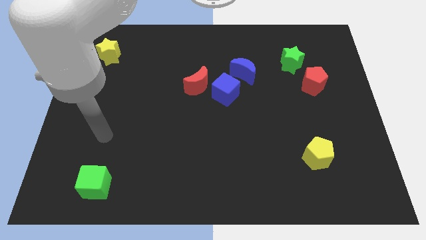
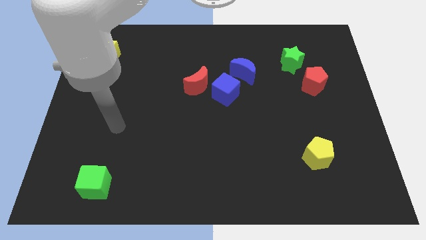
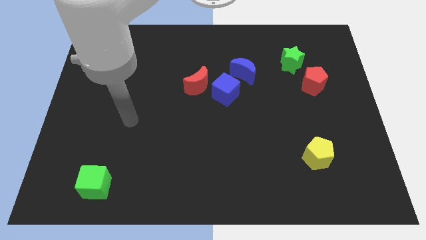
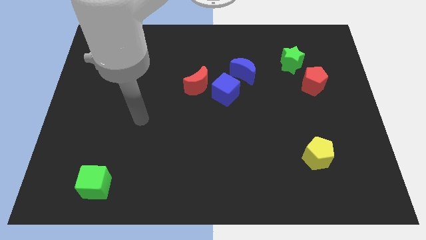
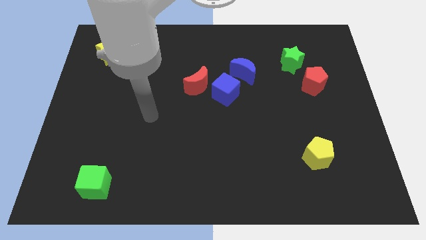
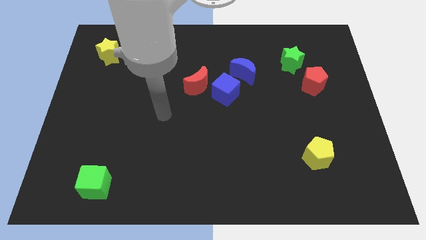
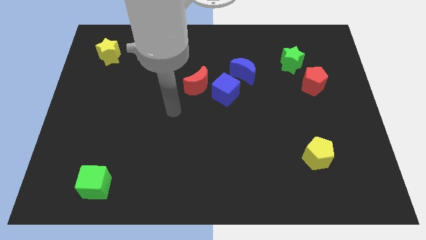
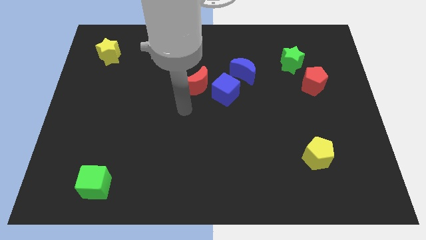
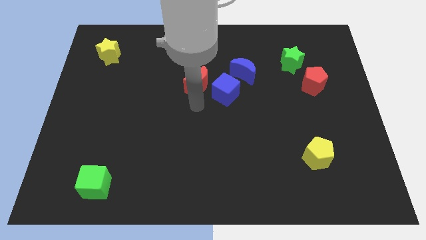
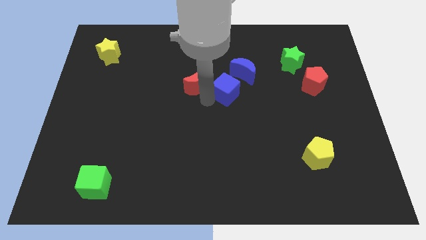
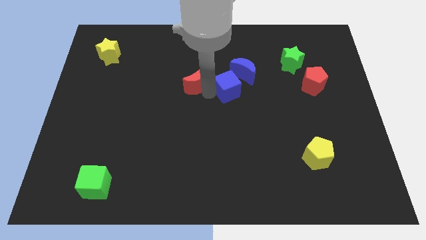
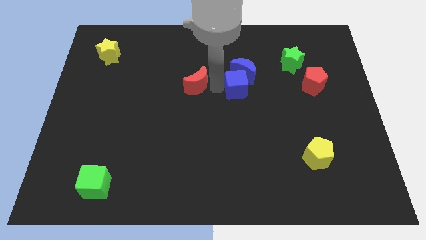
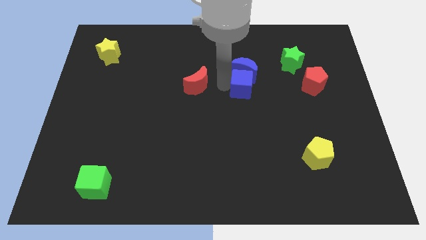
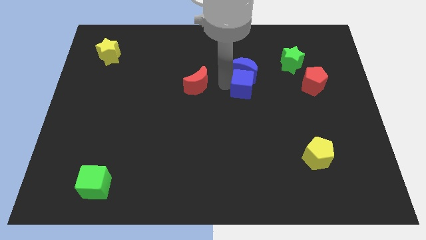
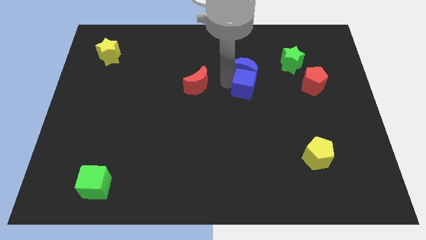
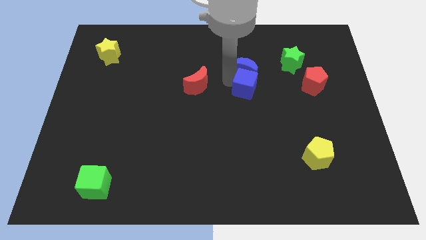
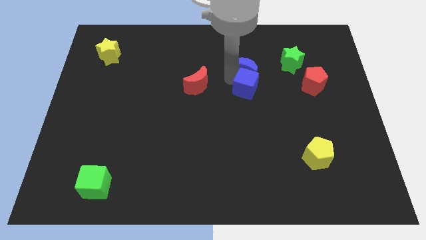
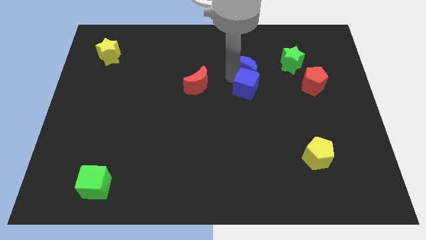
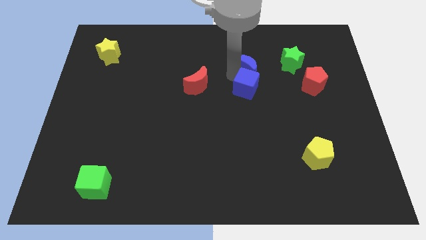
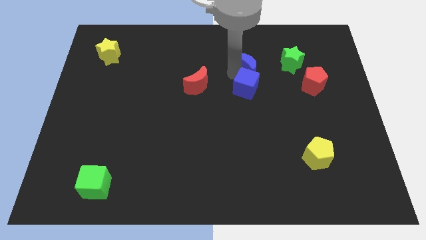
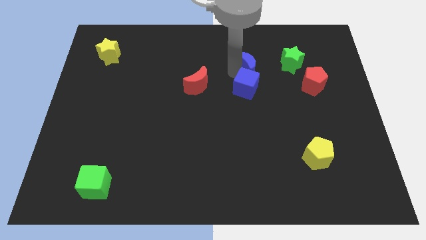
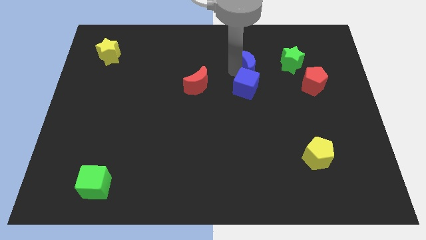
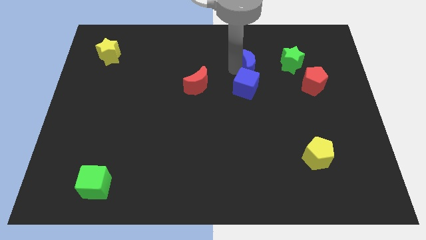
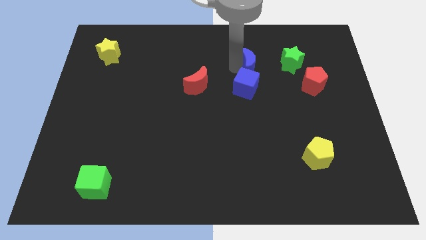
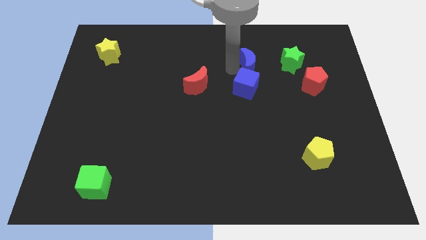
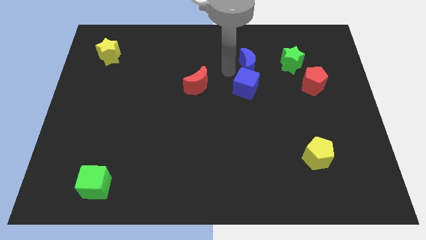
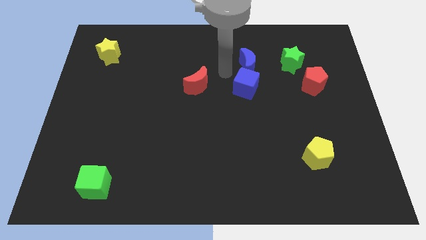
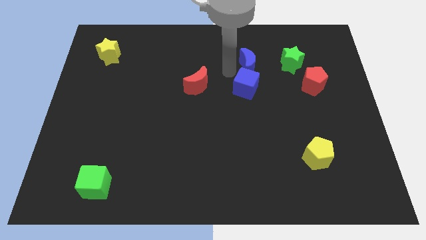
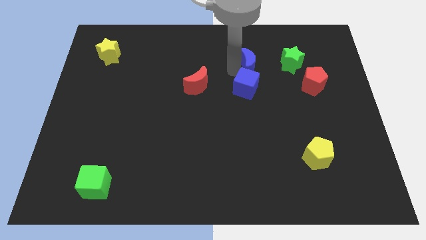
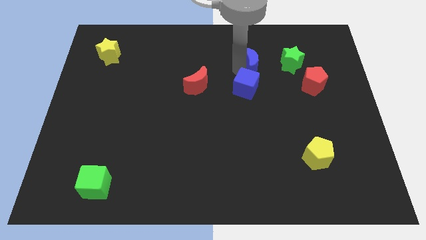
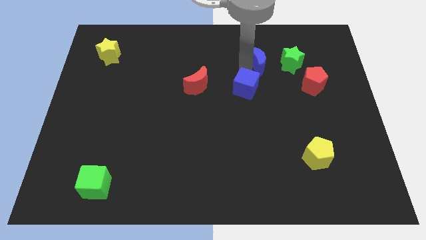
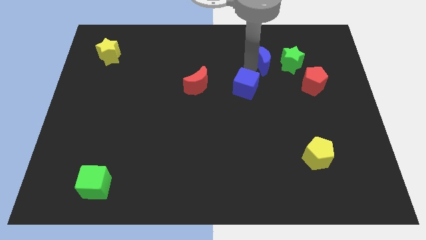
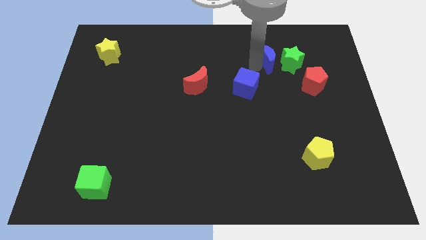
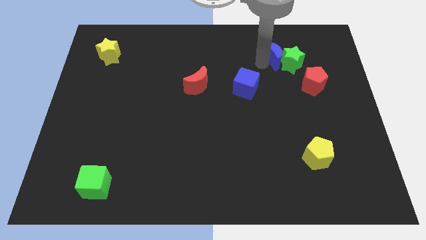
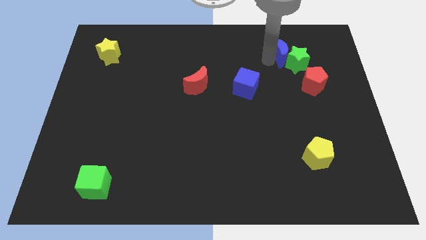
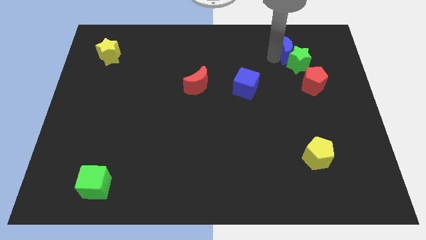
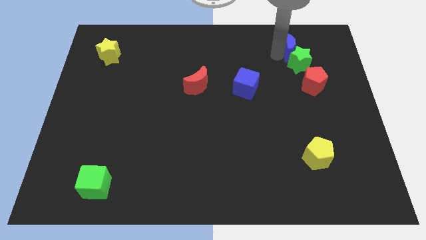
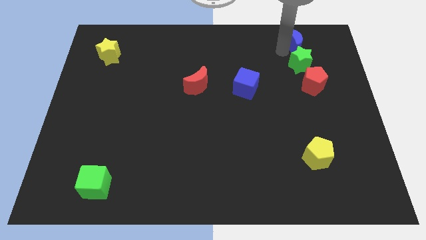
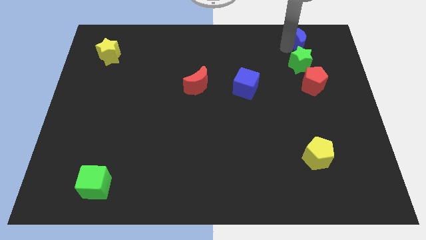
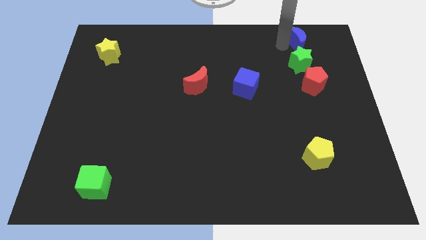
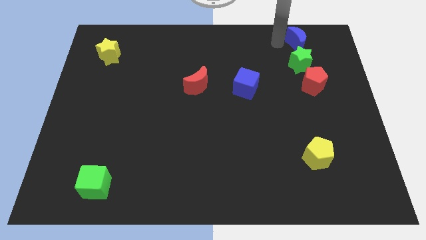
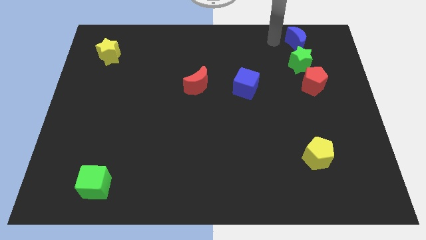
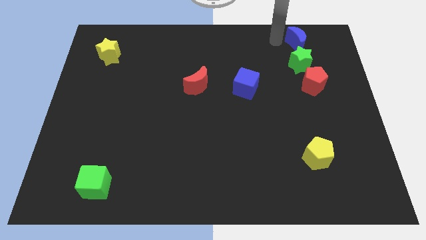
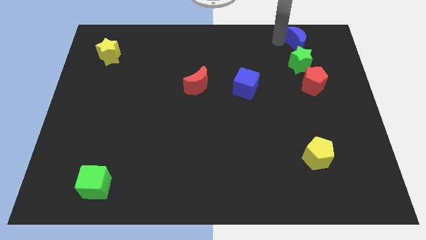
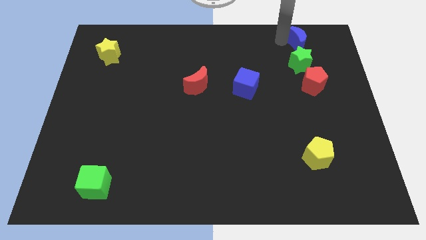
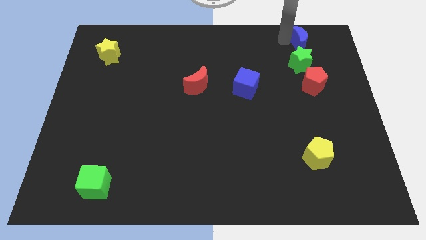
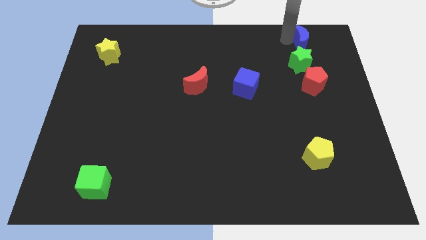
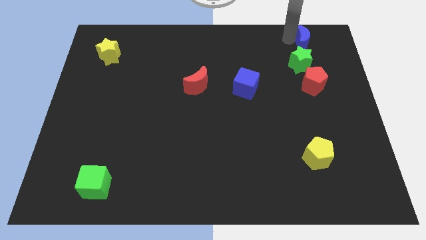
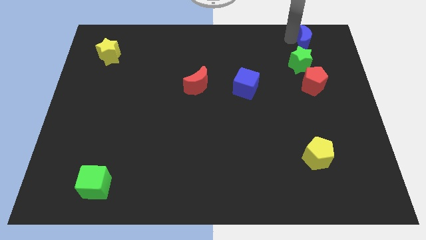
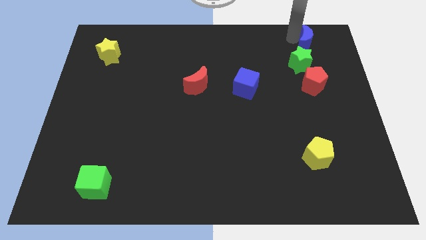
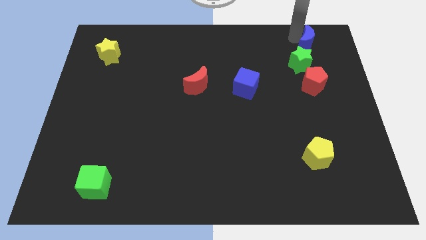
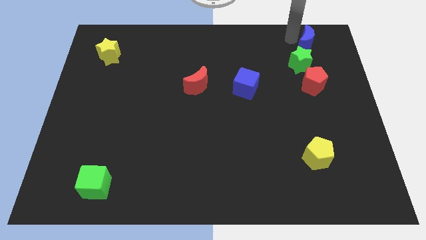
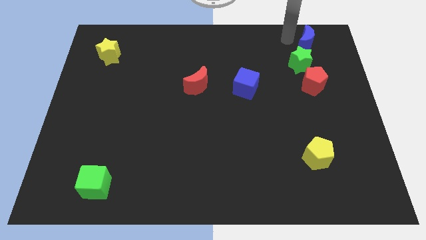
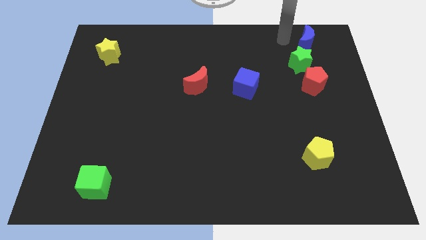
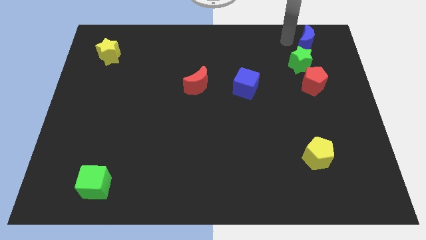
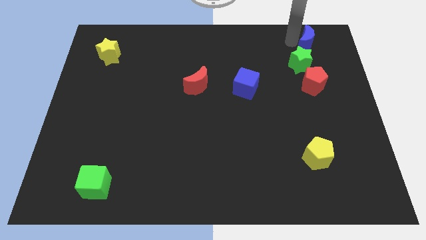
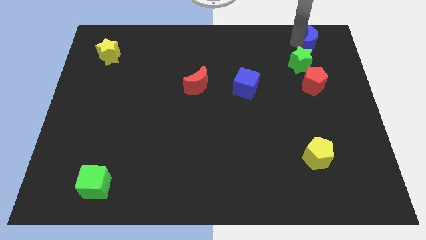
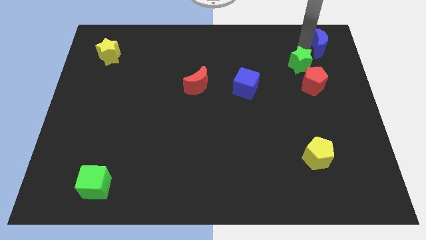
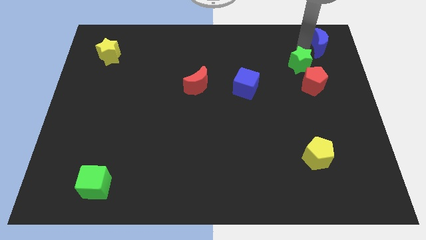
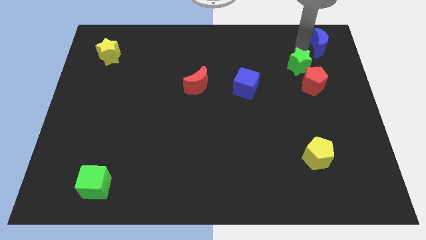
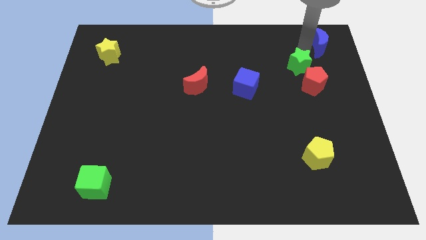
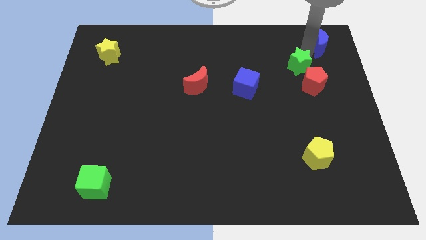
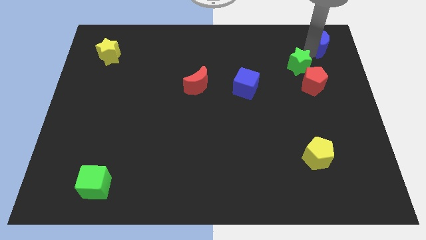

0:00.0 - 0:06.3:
push the blue moon to the top right corner
